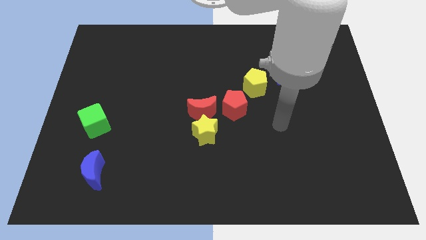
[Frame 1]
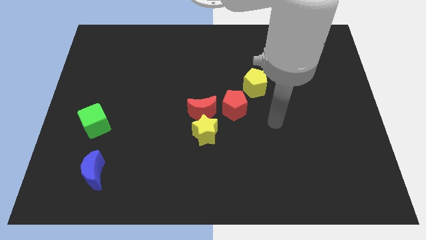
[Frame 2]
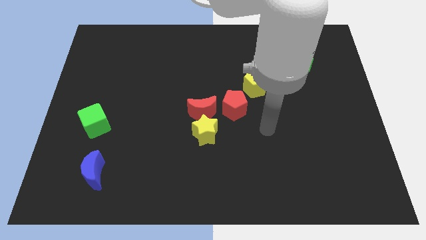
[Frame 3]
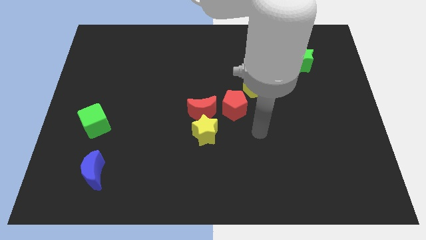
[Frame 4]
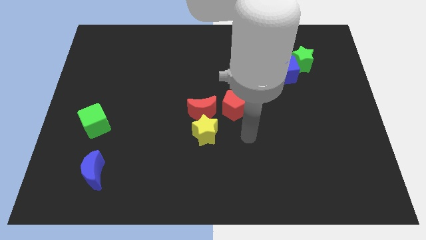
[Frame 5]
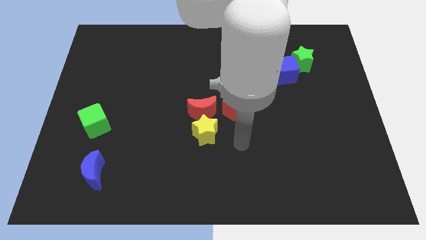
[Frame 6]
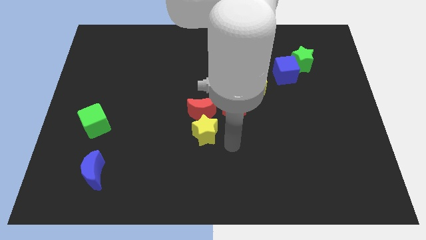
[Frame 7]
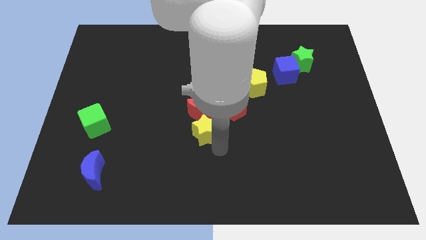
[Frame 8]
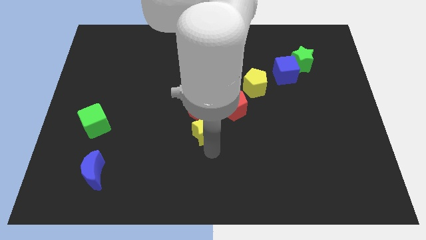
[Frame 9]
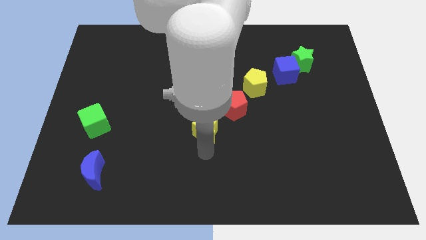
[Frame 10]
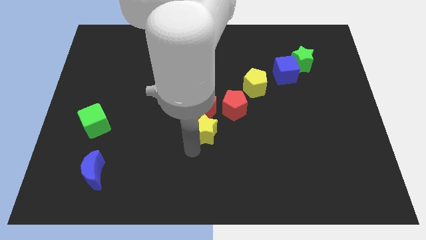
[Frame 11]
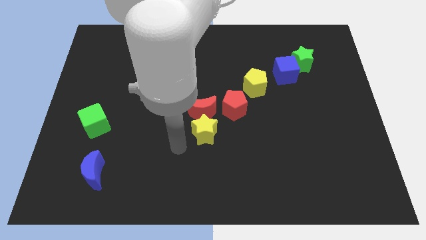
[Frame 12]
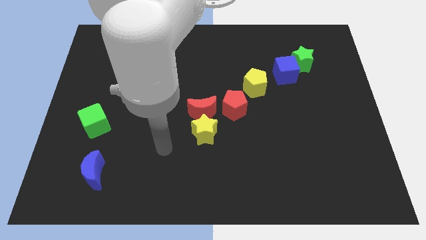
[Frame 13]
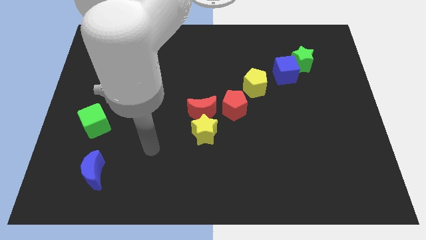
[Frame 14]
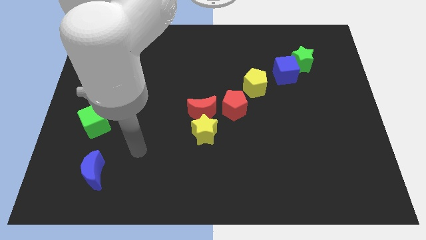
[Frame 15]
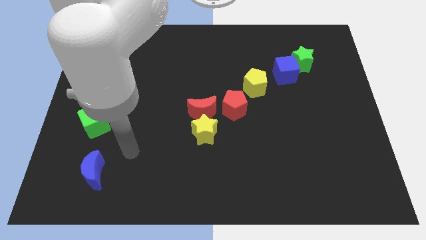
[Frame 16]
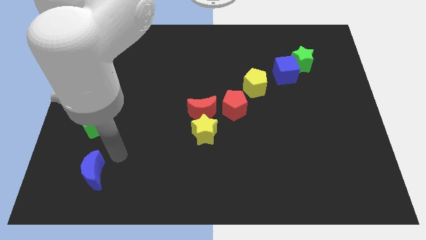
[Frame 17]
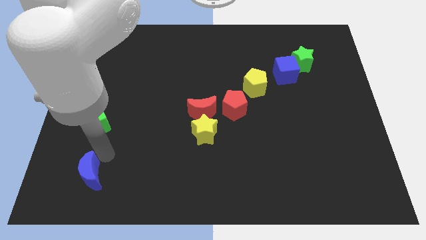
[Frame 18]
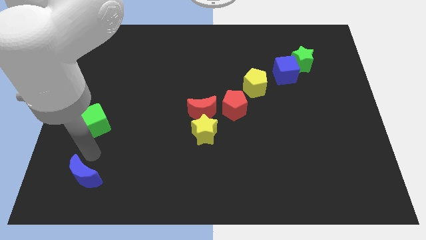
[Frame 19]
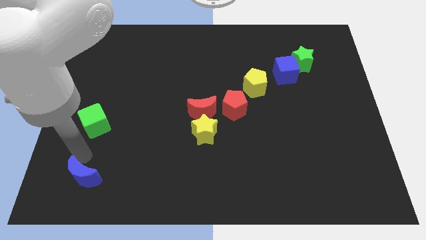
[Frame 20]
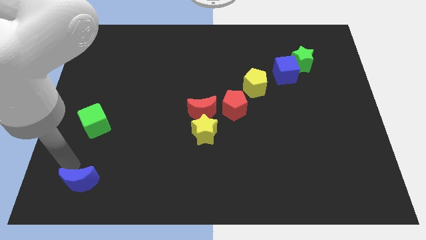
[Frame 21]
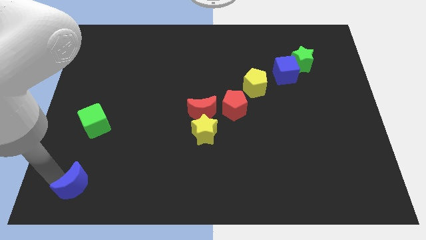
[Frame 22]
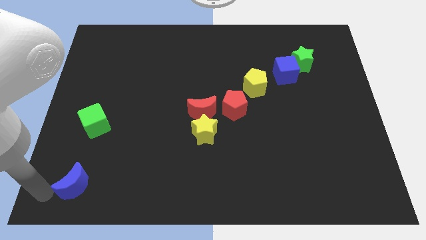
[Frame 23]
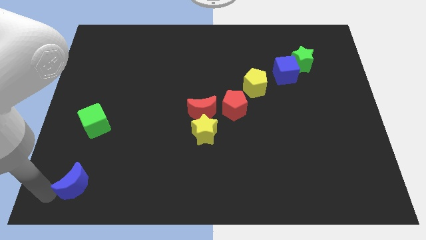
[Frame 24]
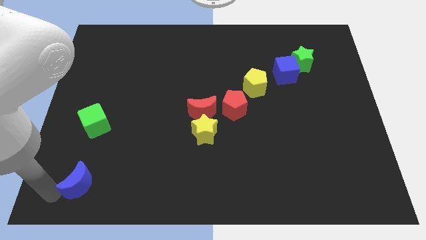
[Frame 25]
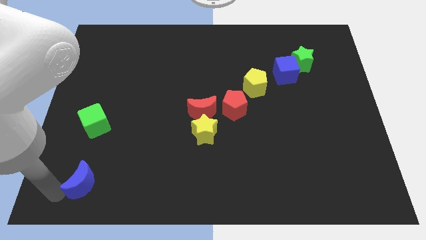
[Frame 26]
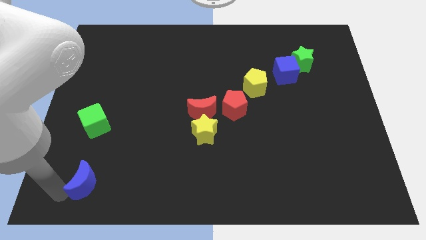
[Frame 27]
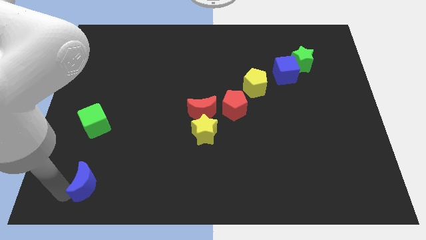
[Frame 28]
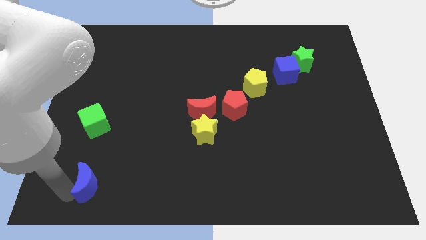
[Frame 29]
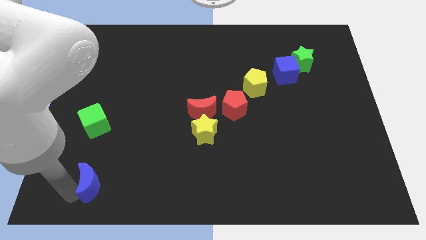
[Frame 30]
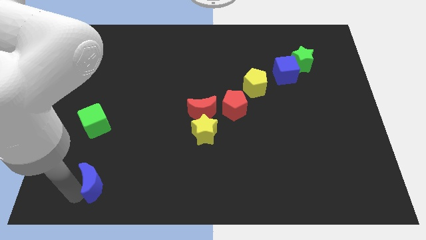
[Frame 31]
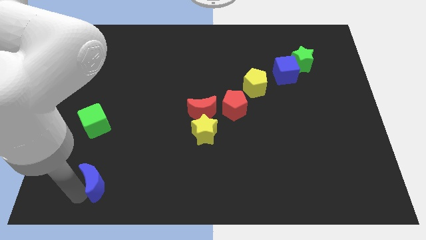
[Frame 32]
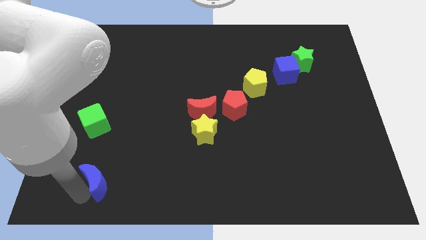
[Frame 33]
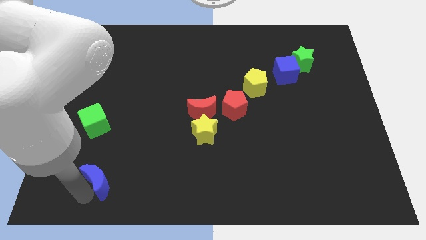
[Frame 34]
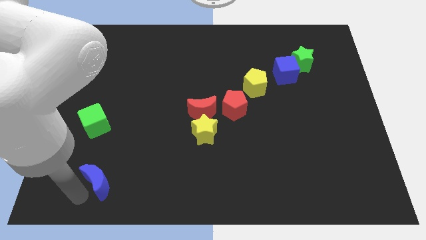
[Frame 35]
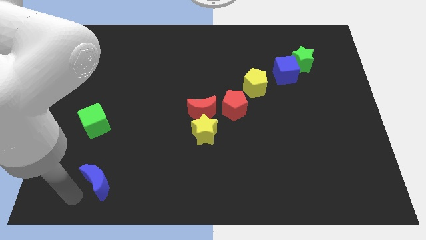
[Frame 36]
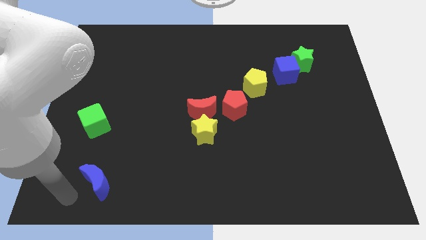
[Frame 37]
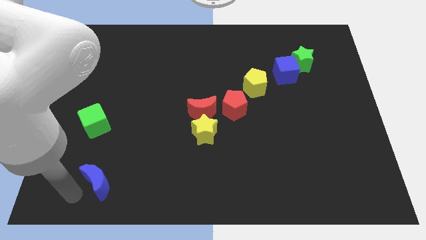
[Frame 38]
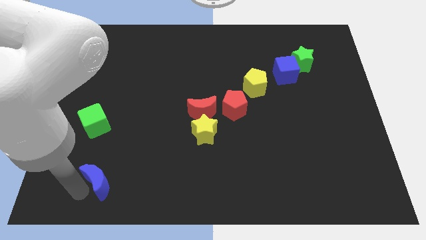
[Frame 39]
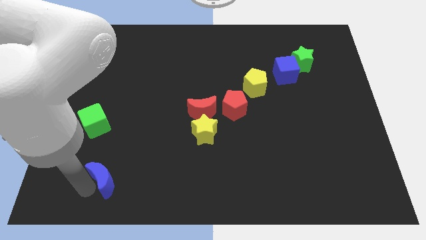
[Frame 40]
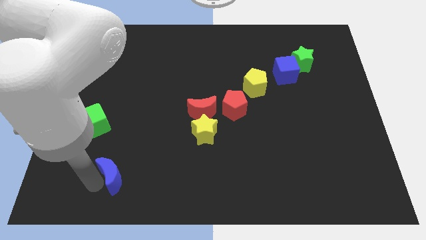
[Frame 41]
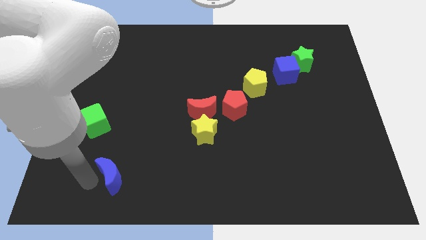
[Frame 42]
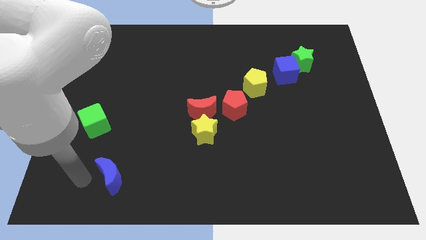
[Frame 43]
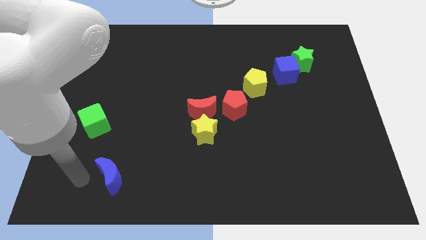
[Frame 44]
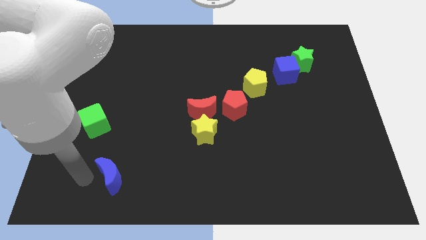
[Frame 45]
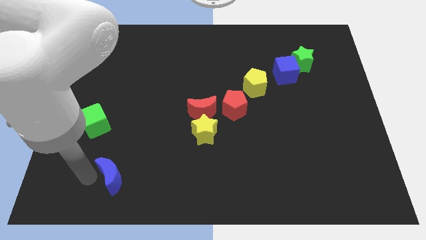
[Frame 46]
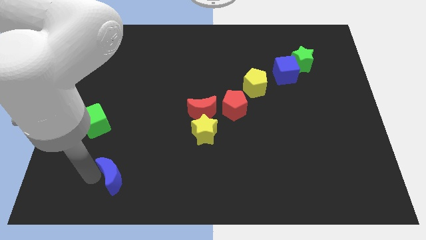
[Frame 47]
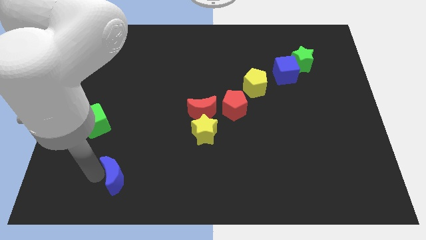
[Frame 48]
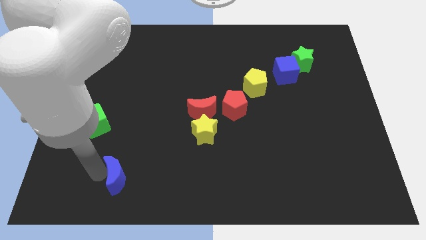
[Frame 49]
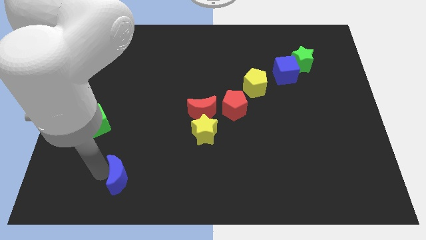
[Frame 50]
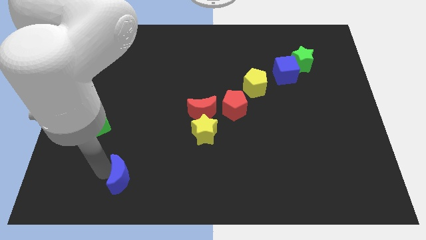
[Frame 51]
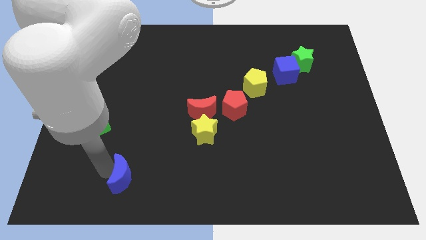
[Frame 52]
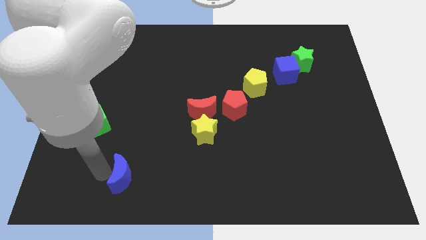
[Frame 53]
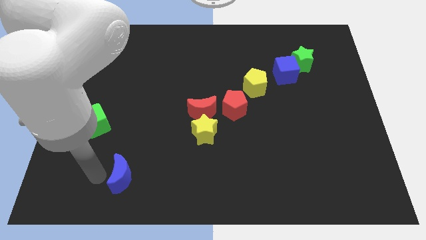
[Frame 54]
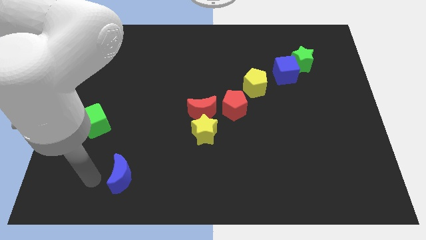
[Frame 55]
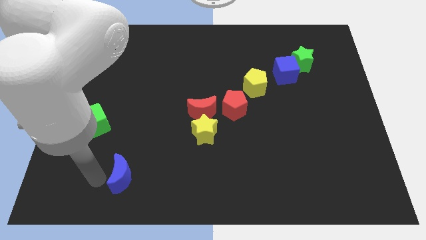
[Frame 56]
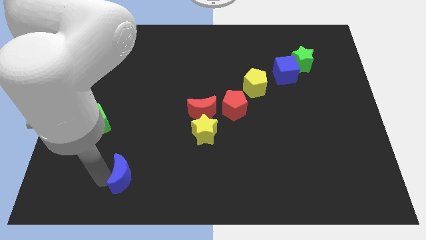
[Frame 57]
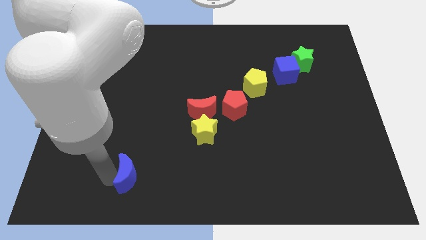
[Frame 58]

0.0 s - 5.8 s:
slightly push the blue moon right

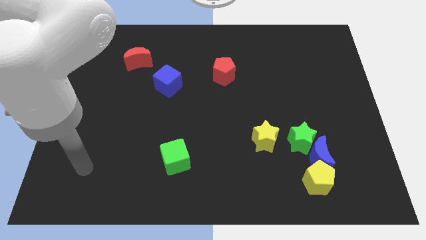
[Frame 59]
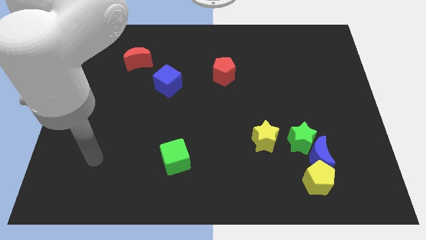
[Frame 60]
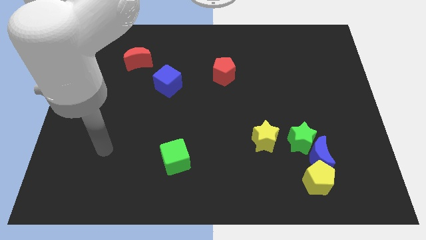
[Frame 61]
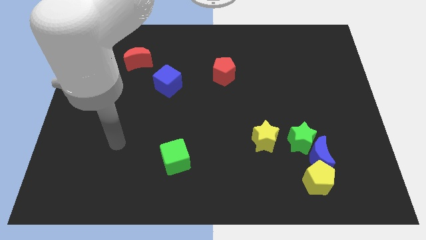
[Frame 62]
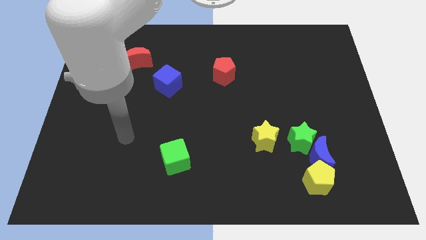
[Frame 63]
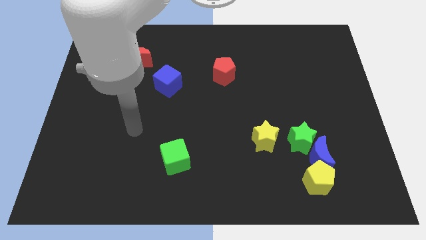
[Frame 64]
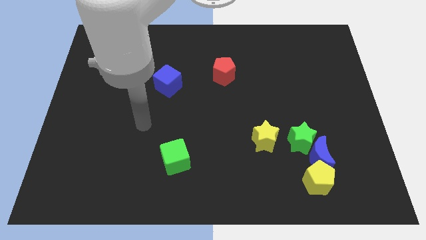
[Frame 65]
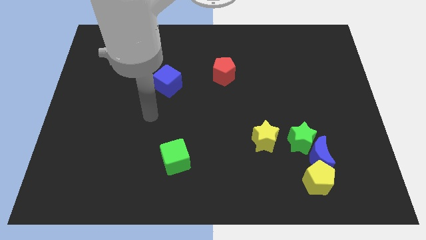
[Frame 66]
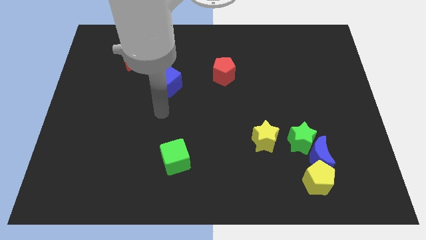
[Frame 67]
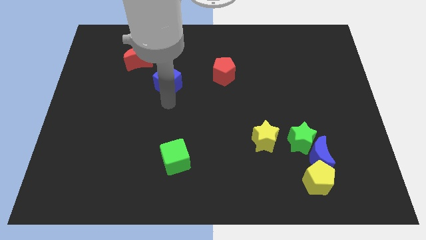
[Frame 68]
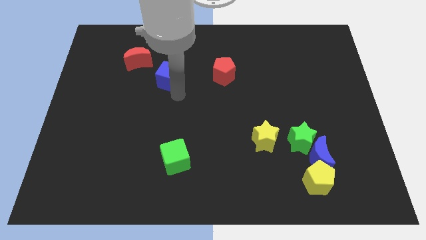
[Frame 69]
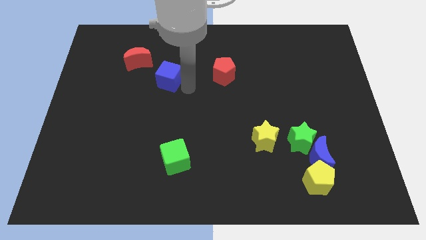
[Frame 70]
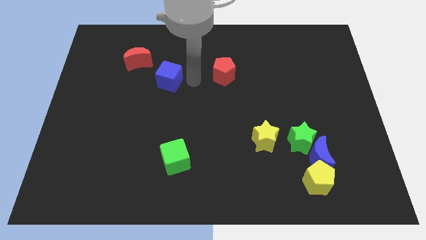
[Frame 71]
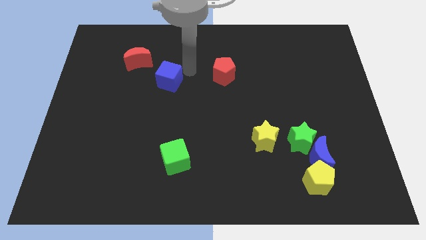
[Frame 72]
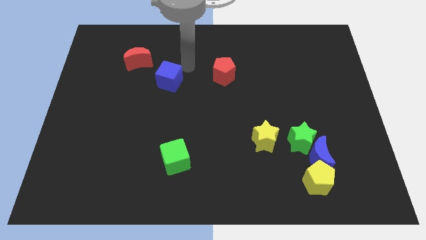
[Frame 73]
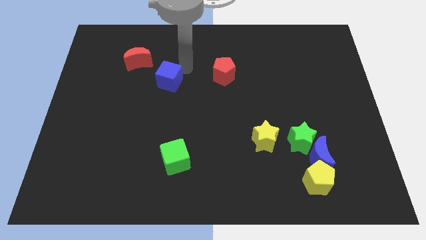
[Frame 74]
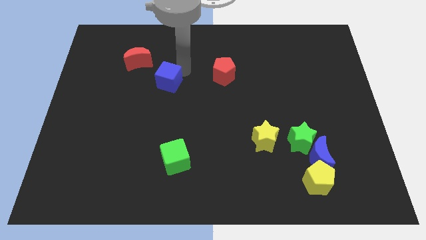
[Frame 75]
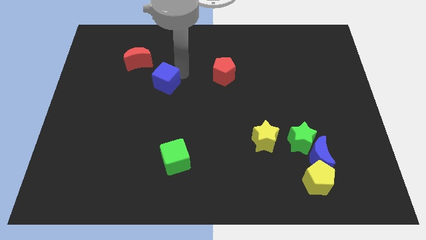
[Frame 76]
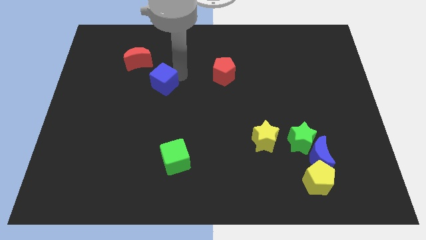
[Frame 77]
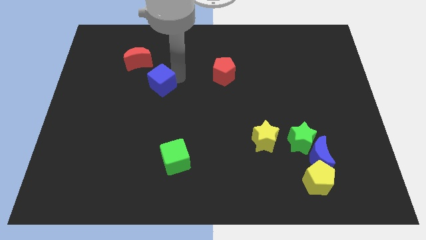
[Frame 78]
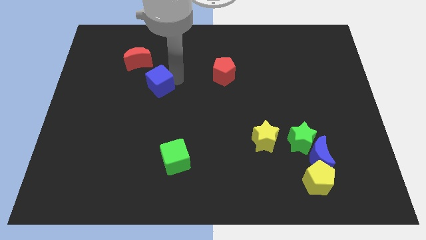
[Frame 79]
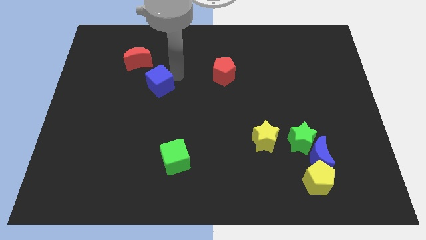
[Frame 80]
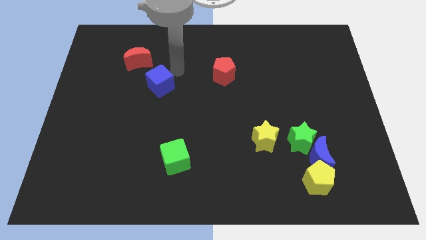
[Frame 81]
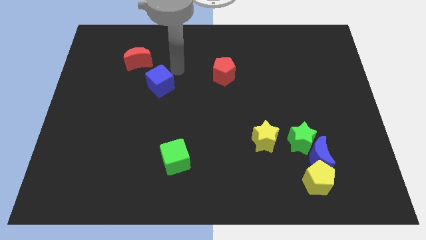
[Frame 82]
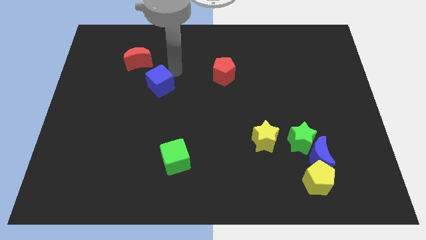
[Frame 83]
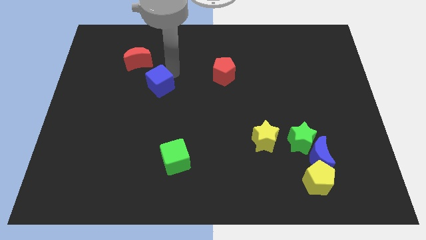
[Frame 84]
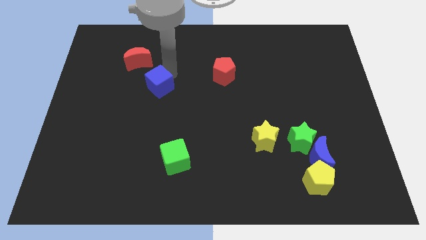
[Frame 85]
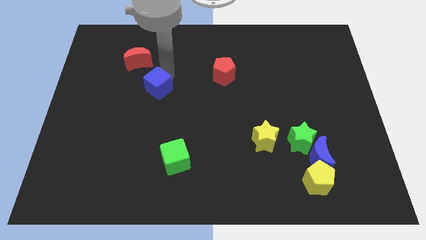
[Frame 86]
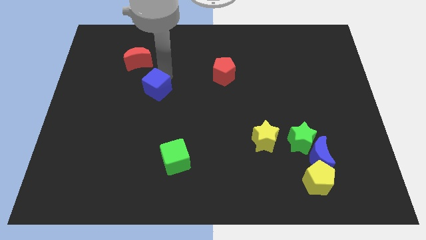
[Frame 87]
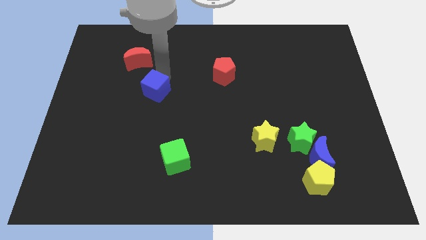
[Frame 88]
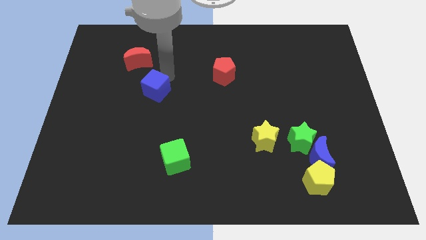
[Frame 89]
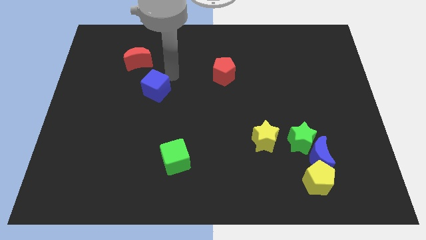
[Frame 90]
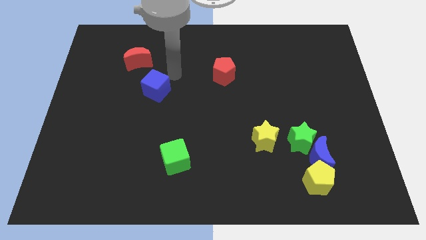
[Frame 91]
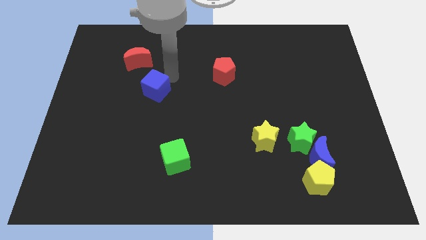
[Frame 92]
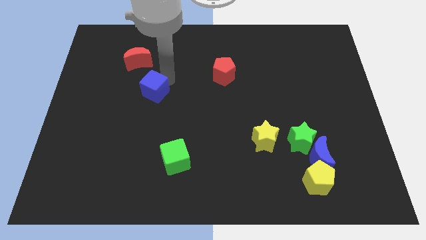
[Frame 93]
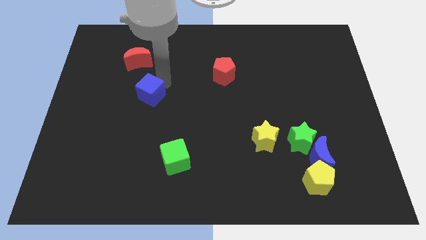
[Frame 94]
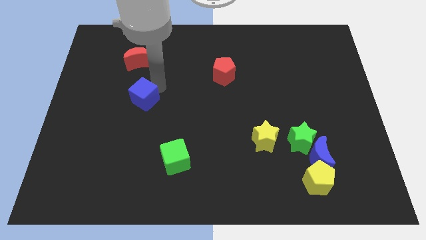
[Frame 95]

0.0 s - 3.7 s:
move the blue cube down and then left slightly
